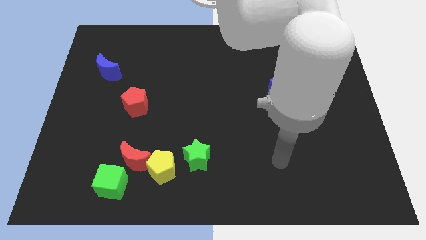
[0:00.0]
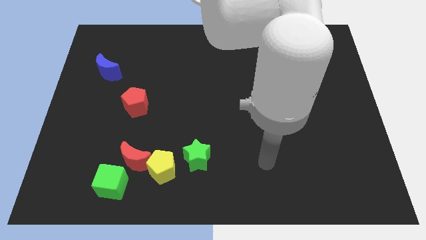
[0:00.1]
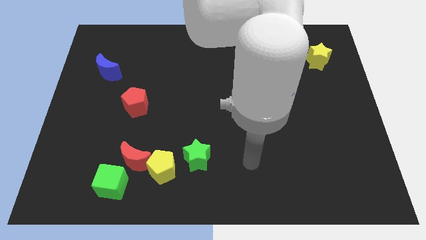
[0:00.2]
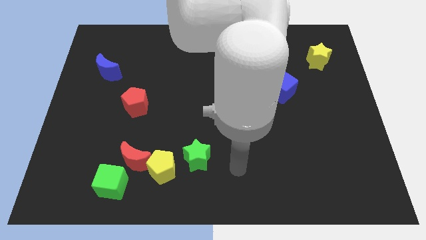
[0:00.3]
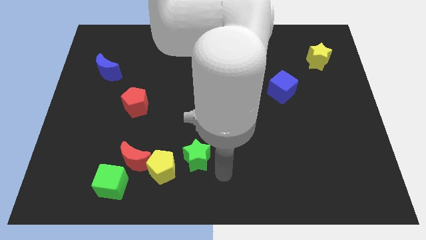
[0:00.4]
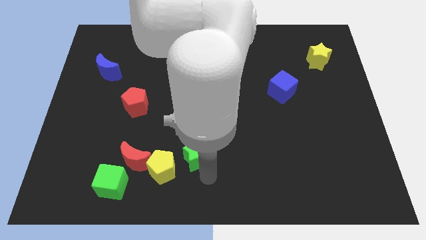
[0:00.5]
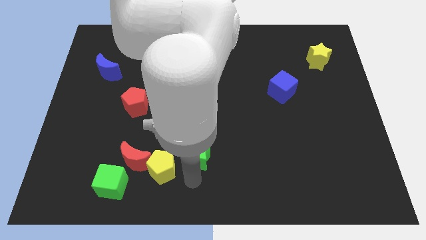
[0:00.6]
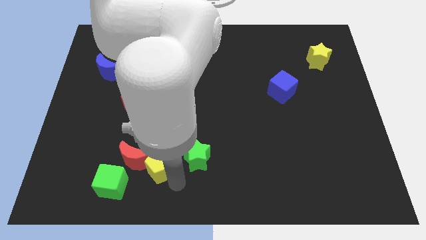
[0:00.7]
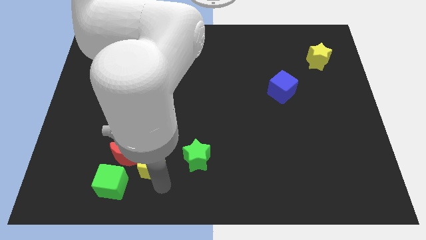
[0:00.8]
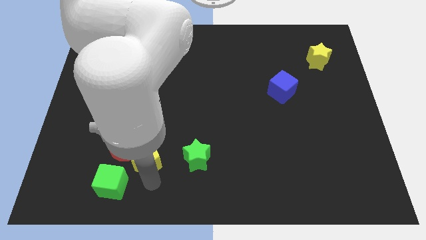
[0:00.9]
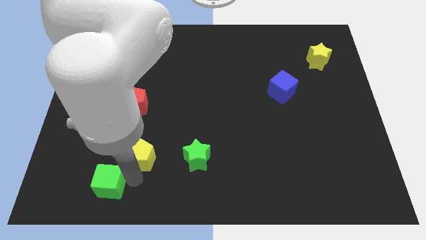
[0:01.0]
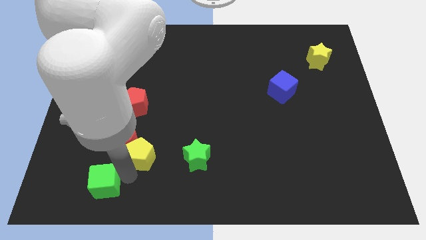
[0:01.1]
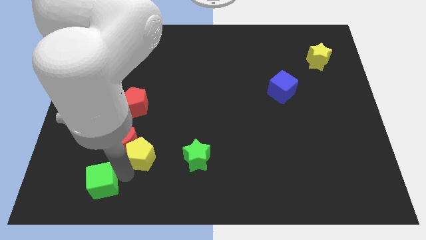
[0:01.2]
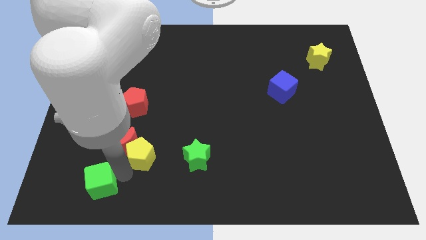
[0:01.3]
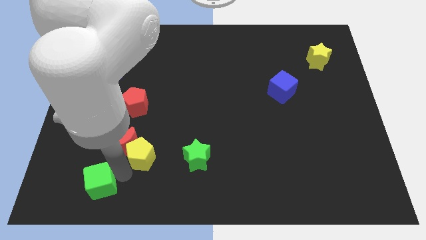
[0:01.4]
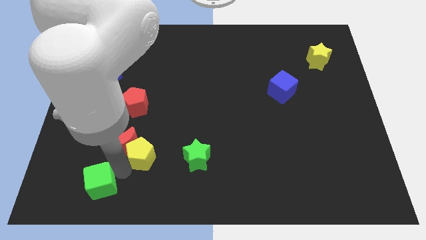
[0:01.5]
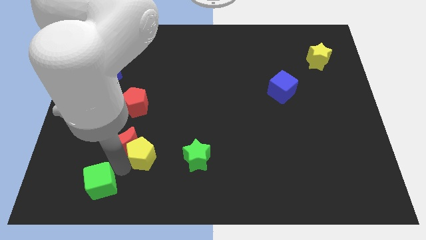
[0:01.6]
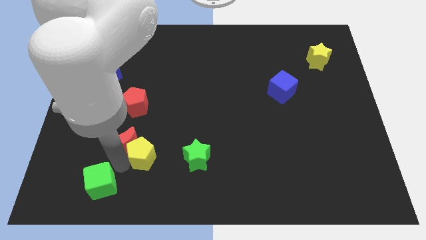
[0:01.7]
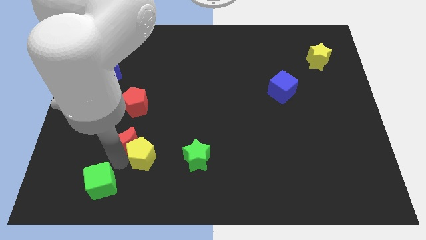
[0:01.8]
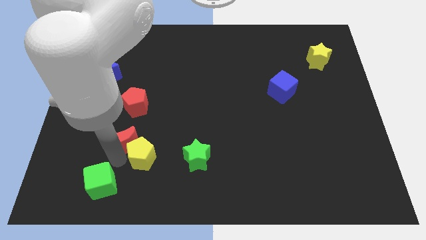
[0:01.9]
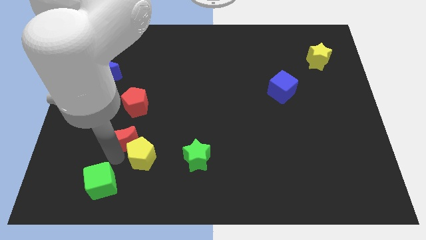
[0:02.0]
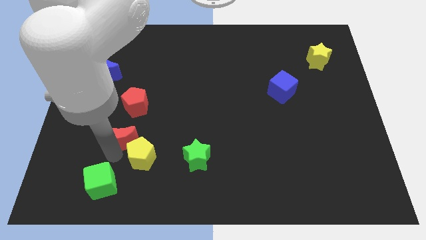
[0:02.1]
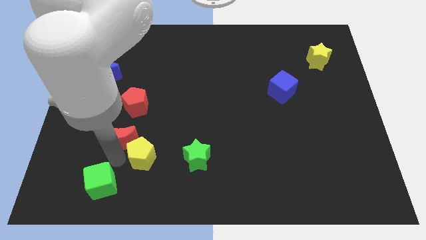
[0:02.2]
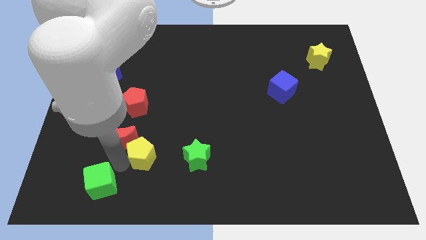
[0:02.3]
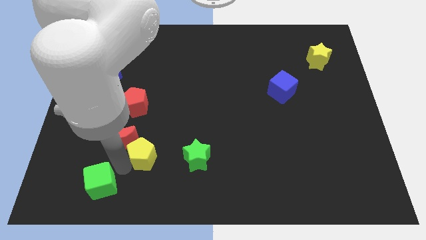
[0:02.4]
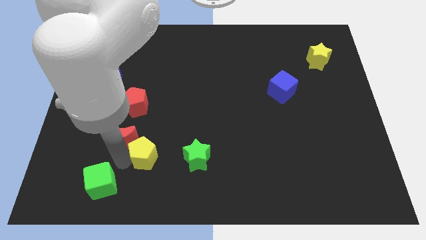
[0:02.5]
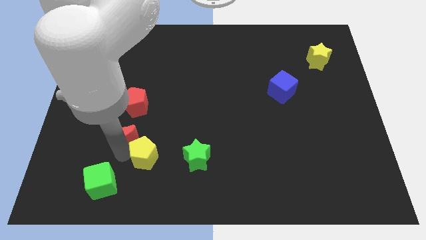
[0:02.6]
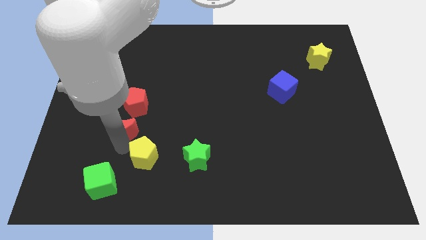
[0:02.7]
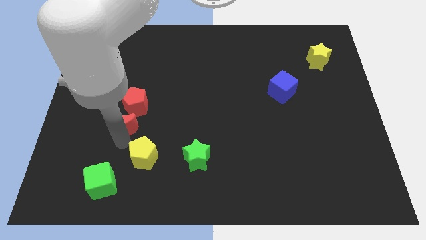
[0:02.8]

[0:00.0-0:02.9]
pull the red moon apart from the yellow pentagon and green cube

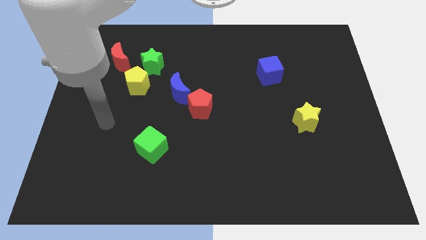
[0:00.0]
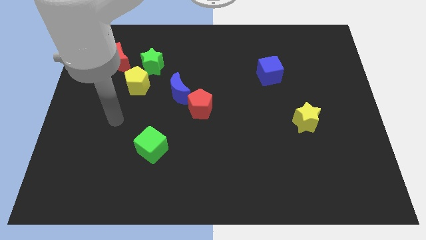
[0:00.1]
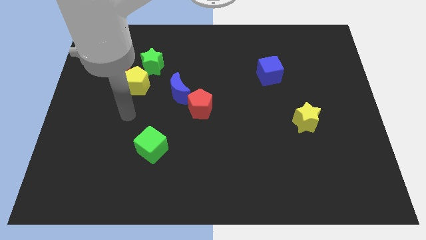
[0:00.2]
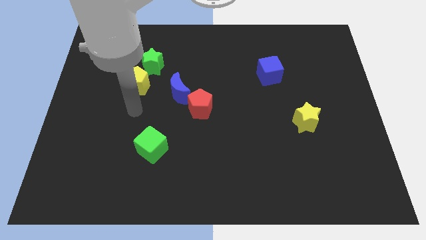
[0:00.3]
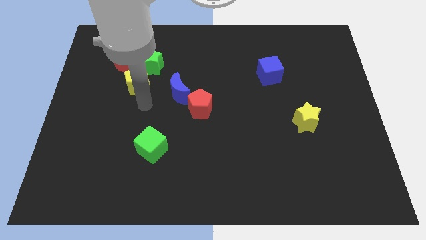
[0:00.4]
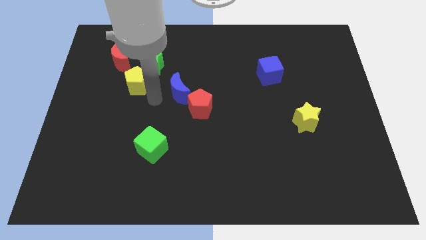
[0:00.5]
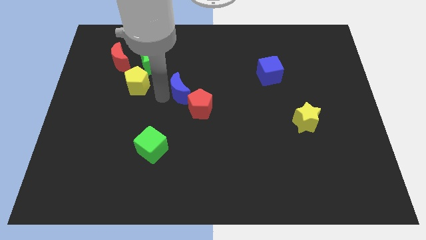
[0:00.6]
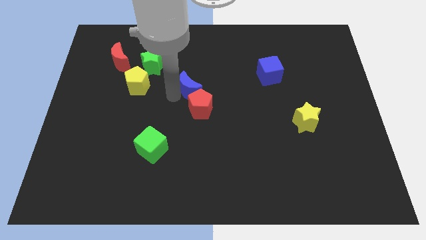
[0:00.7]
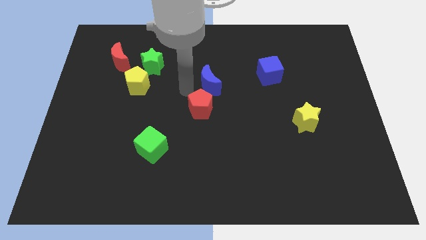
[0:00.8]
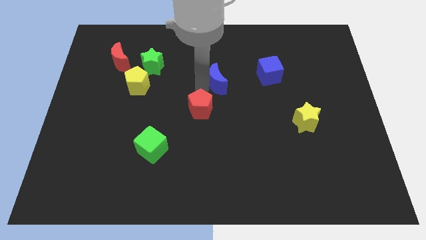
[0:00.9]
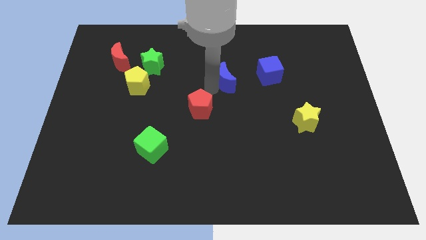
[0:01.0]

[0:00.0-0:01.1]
separate the red pentagon from the blue moon

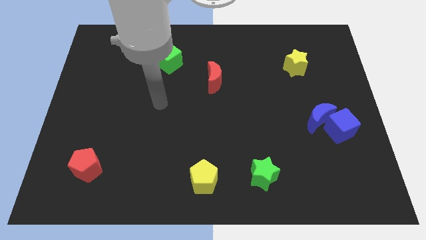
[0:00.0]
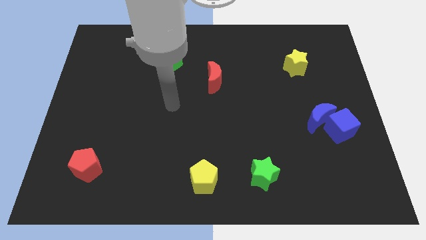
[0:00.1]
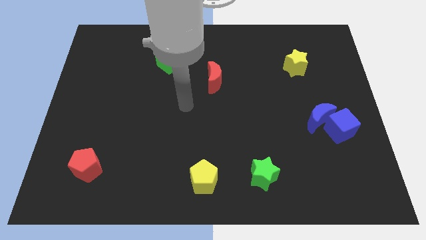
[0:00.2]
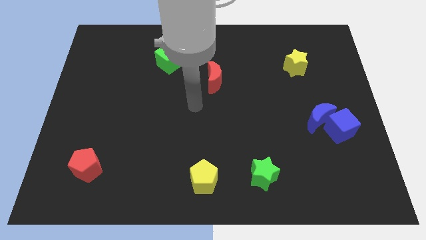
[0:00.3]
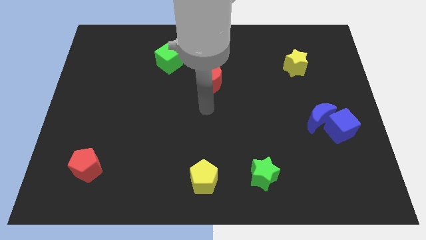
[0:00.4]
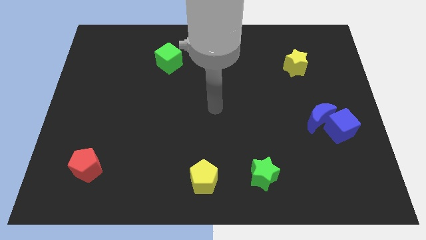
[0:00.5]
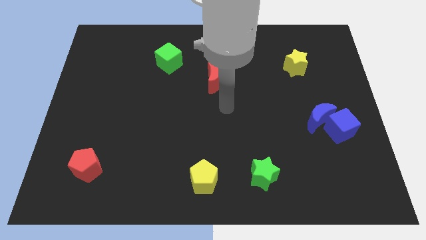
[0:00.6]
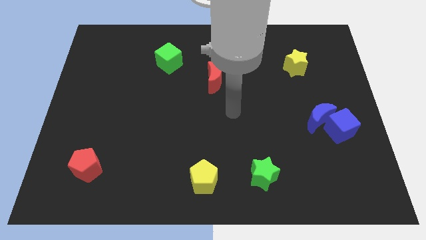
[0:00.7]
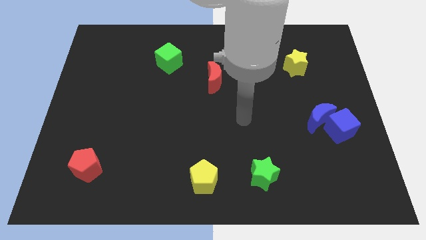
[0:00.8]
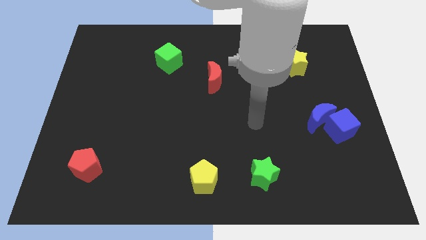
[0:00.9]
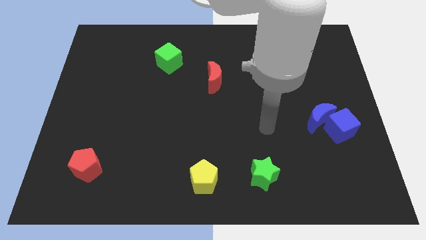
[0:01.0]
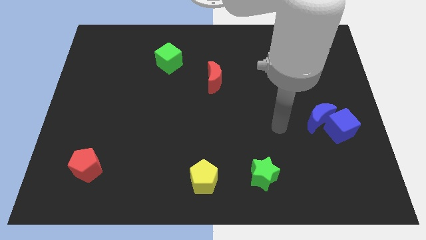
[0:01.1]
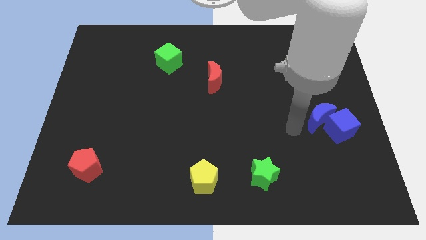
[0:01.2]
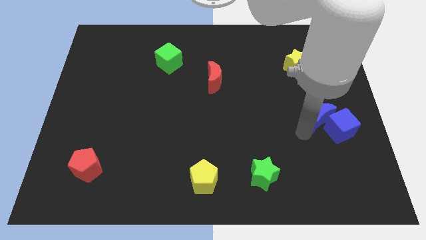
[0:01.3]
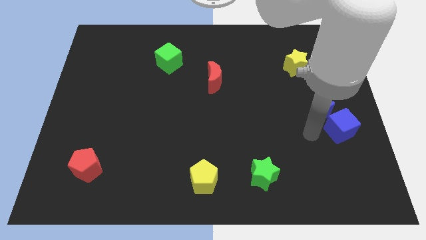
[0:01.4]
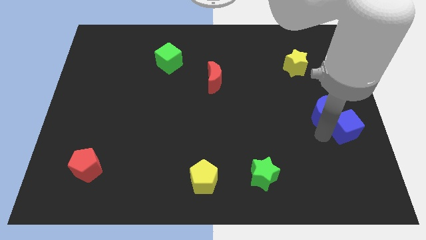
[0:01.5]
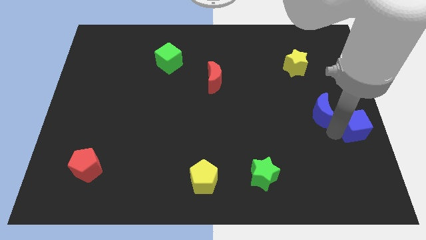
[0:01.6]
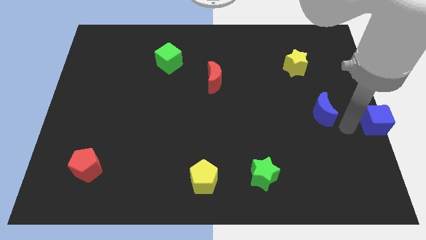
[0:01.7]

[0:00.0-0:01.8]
separate the blue moon from the blue cube

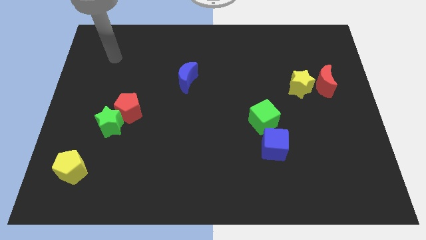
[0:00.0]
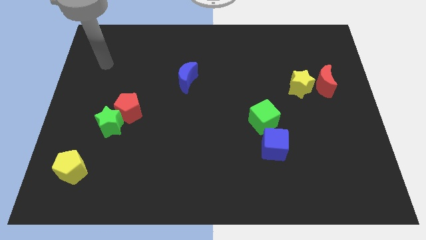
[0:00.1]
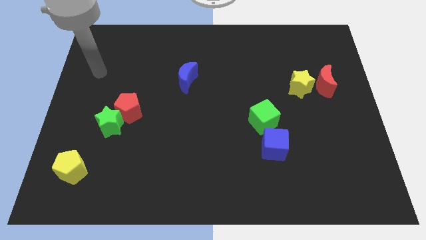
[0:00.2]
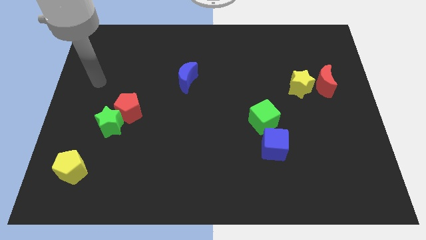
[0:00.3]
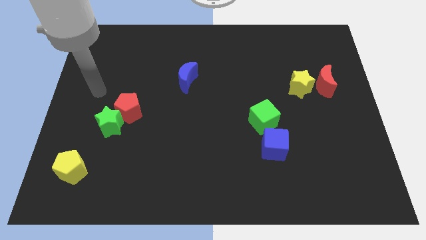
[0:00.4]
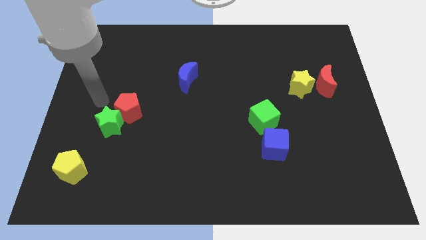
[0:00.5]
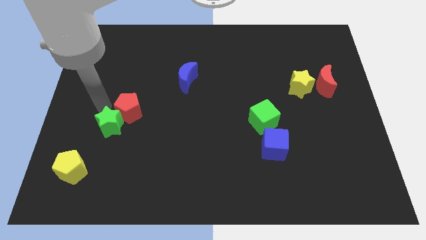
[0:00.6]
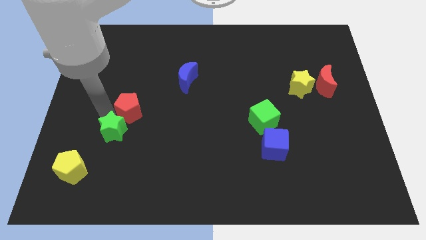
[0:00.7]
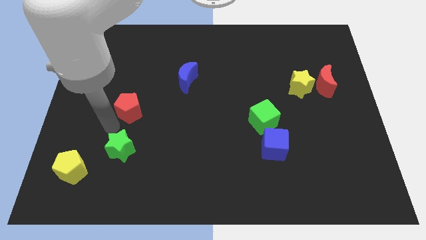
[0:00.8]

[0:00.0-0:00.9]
pull the red pentagon apart from the green star

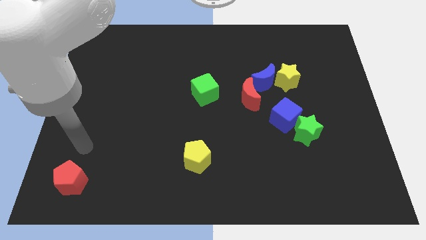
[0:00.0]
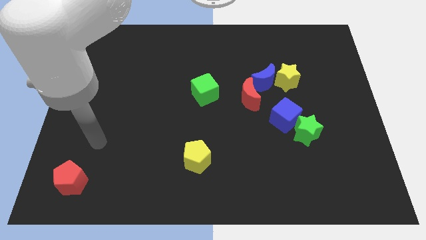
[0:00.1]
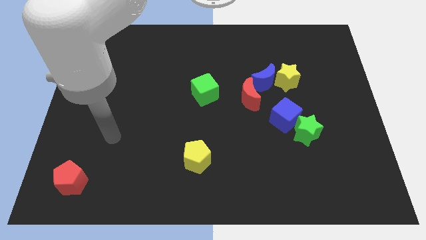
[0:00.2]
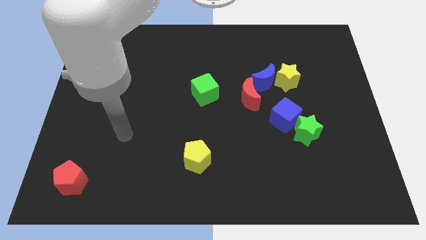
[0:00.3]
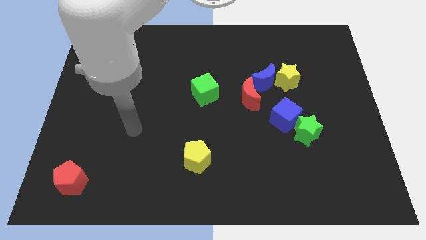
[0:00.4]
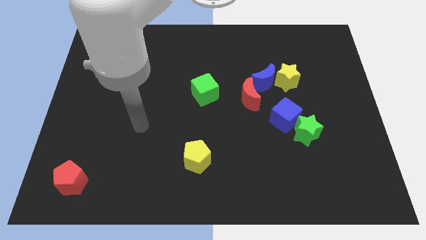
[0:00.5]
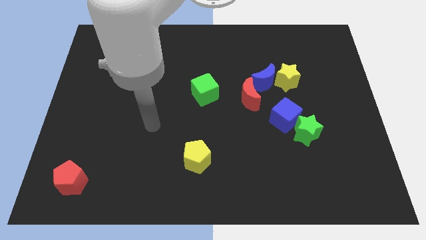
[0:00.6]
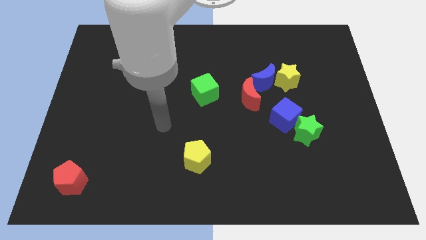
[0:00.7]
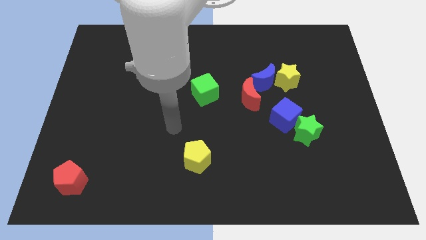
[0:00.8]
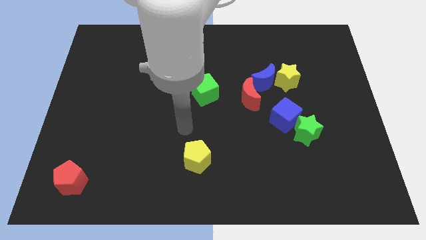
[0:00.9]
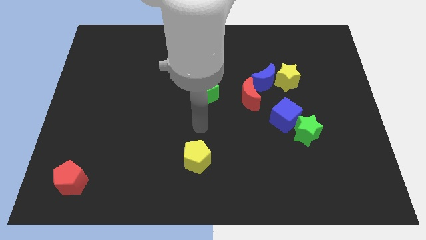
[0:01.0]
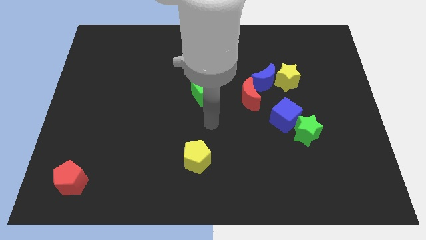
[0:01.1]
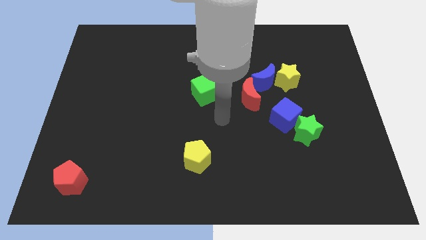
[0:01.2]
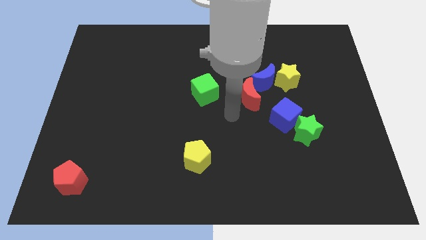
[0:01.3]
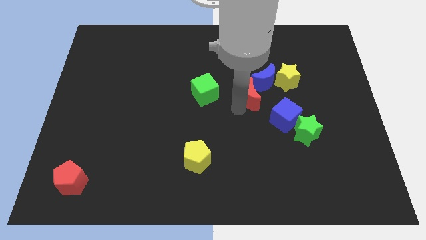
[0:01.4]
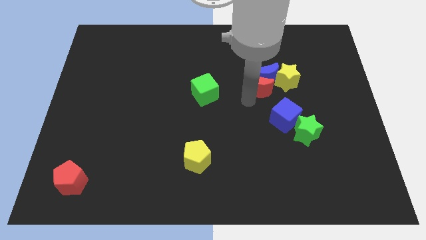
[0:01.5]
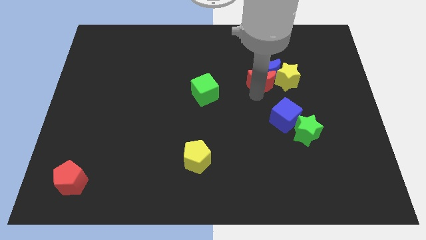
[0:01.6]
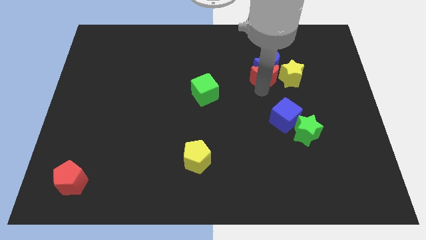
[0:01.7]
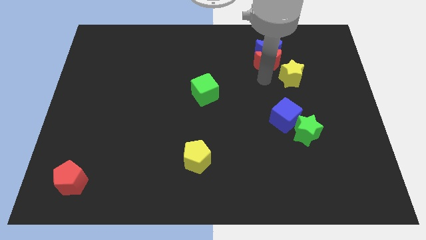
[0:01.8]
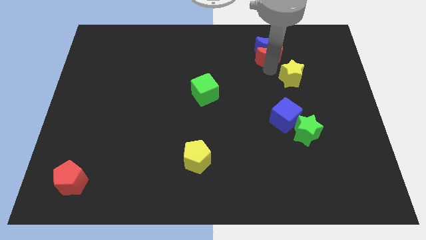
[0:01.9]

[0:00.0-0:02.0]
separate the yellow star from the blue moon

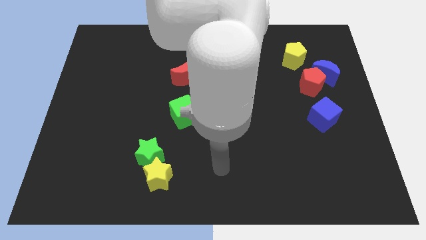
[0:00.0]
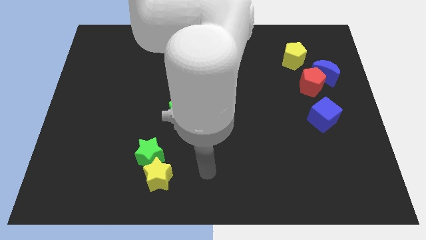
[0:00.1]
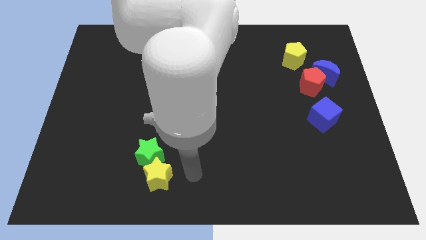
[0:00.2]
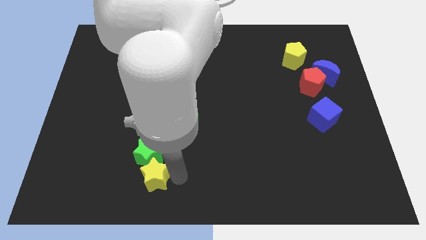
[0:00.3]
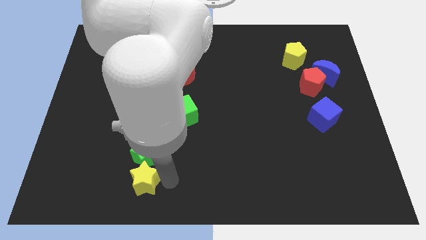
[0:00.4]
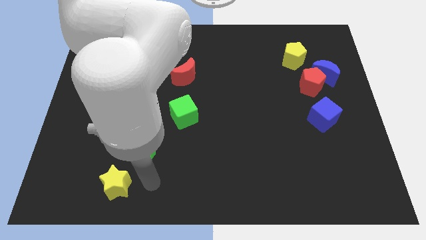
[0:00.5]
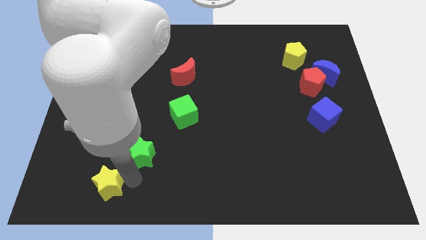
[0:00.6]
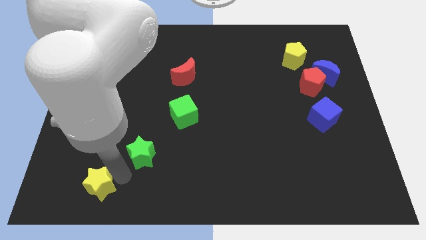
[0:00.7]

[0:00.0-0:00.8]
pull the green star apart from the yellow star
